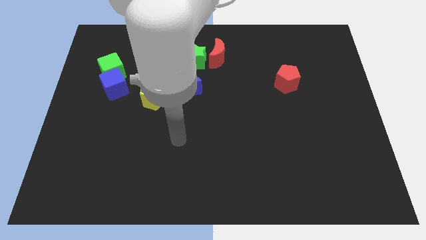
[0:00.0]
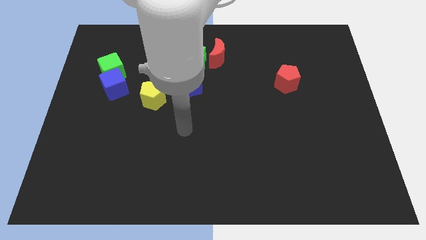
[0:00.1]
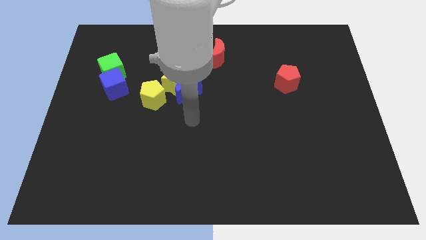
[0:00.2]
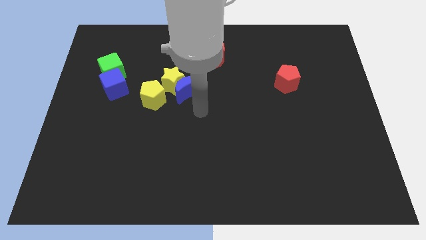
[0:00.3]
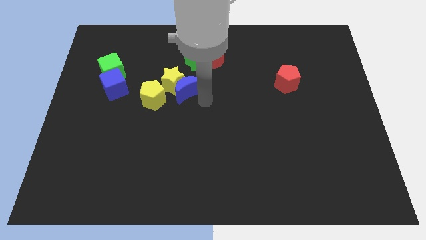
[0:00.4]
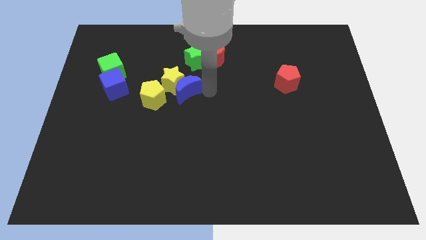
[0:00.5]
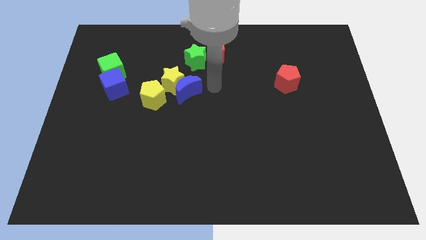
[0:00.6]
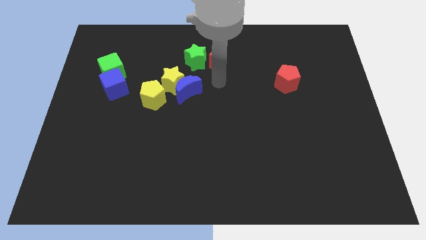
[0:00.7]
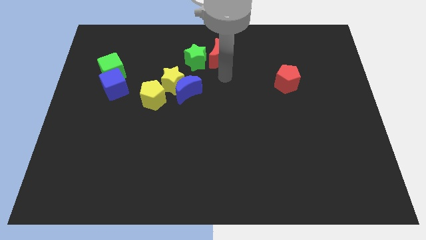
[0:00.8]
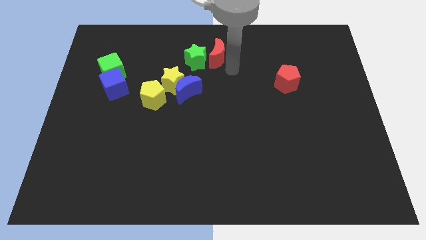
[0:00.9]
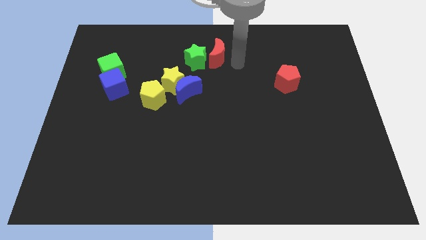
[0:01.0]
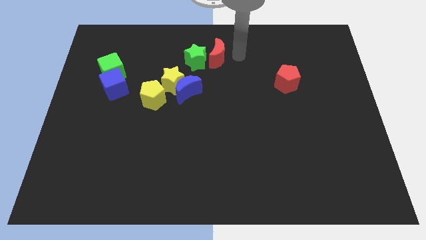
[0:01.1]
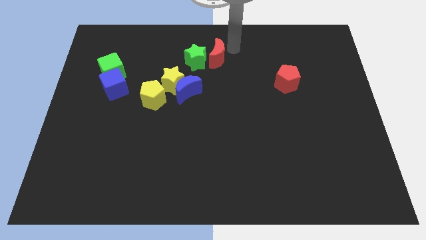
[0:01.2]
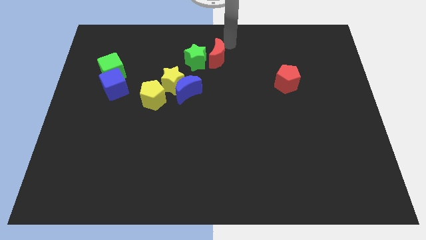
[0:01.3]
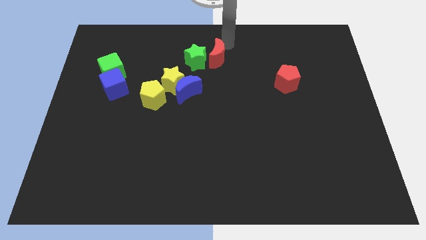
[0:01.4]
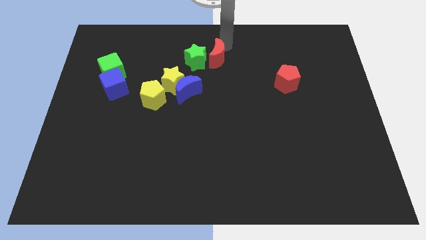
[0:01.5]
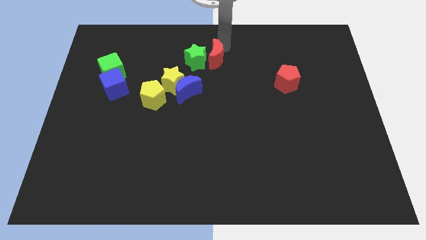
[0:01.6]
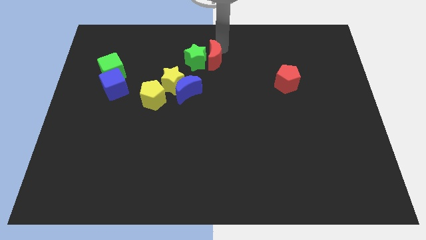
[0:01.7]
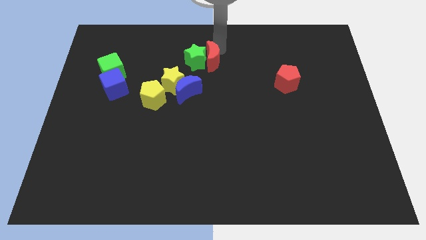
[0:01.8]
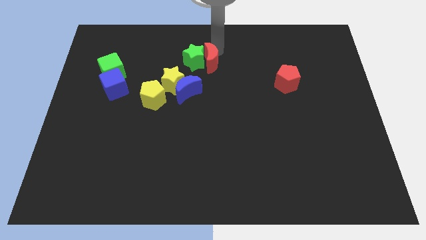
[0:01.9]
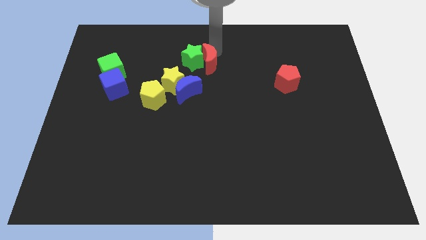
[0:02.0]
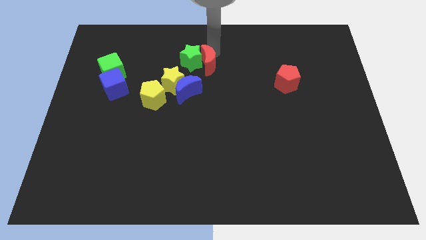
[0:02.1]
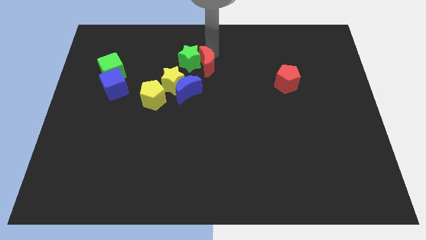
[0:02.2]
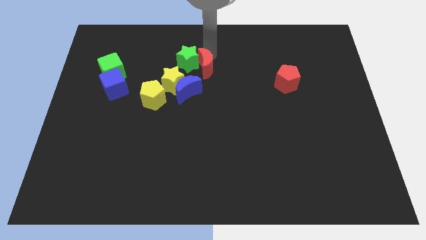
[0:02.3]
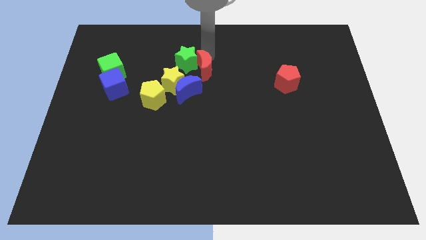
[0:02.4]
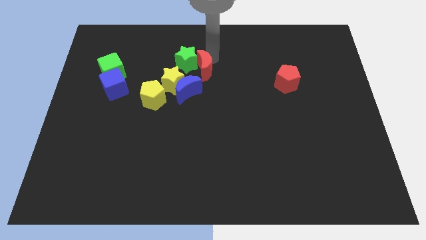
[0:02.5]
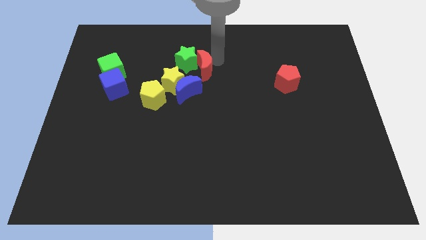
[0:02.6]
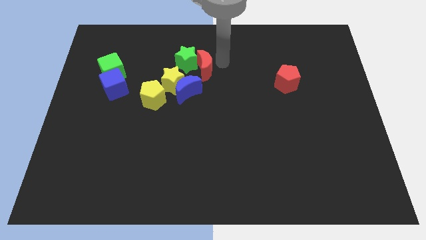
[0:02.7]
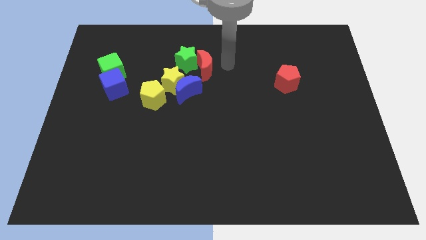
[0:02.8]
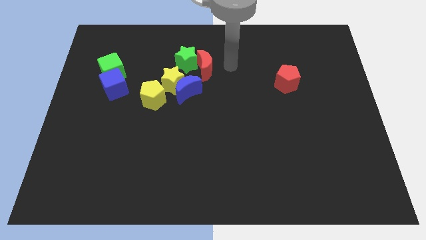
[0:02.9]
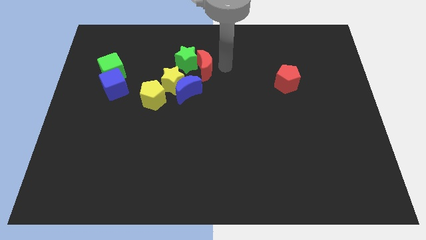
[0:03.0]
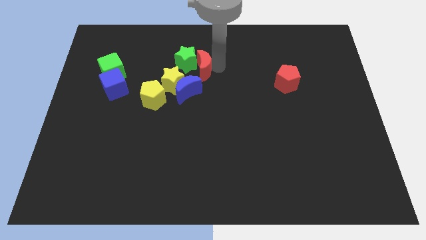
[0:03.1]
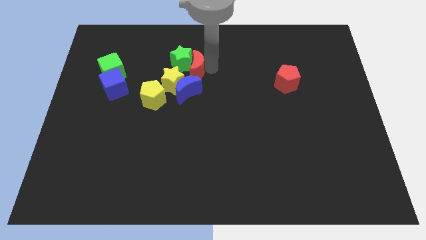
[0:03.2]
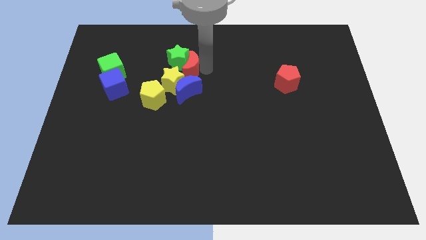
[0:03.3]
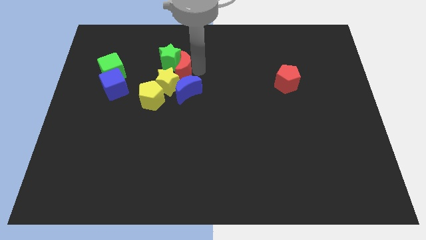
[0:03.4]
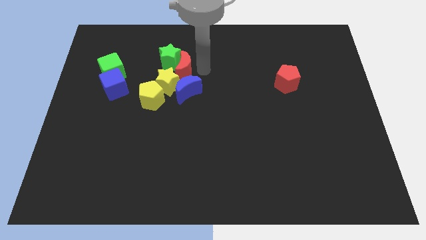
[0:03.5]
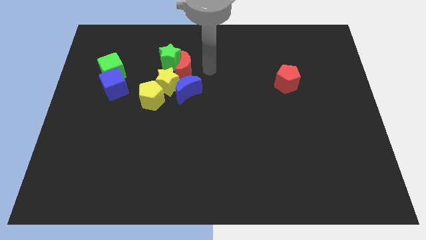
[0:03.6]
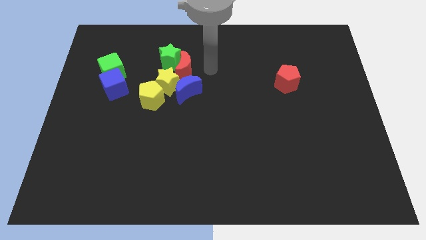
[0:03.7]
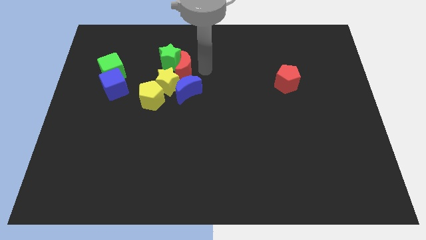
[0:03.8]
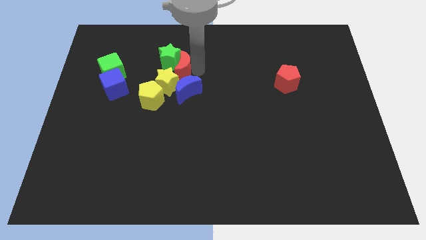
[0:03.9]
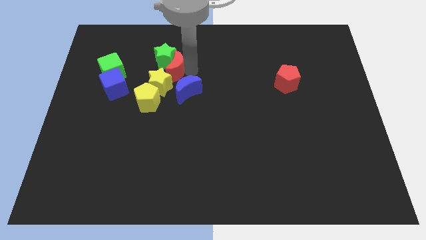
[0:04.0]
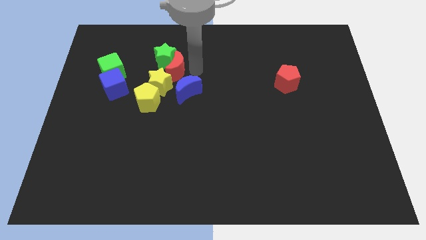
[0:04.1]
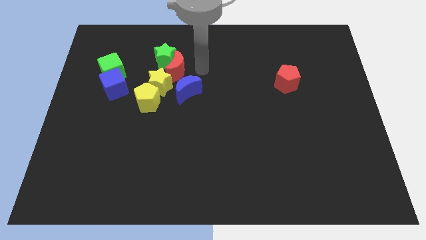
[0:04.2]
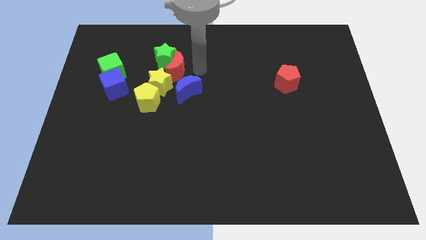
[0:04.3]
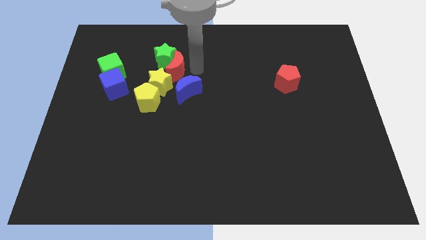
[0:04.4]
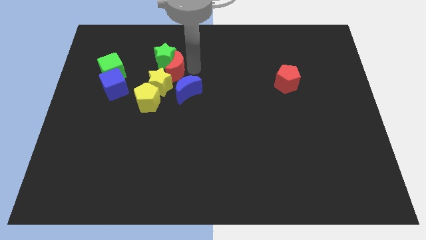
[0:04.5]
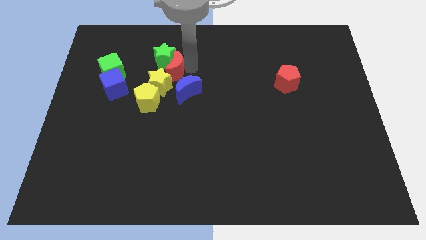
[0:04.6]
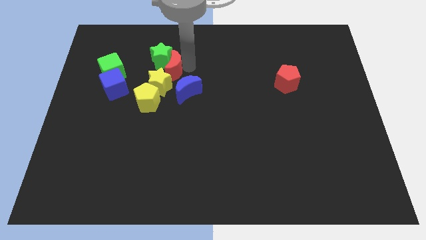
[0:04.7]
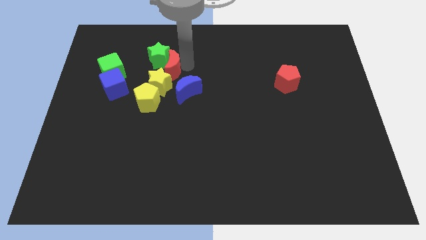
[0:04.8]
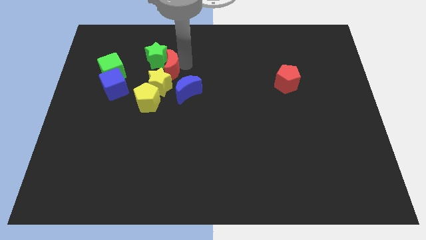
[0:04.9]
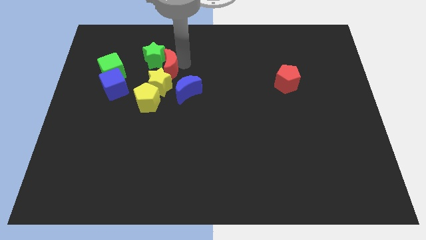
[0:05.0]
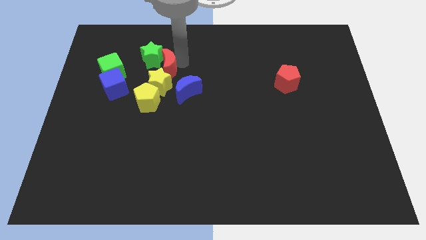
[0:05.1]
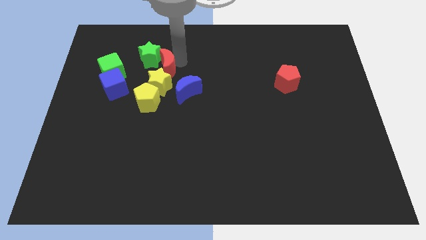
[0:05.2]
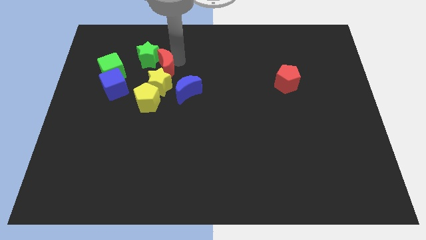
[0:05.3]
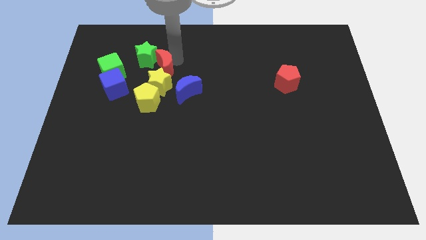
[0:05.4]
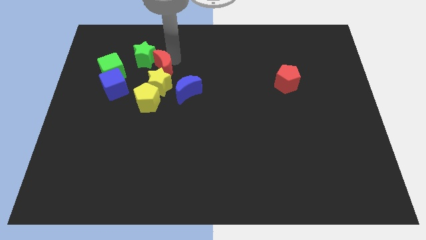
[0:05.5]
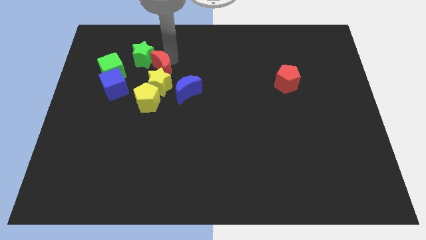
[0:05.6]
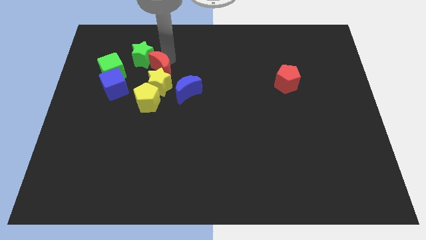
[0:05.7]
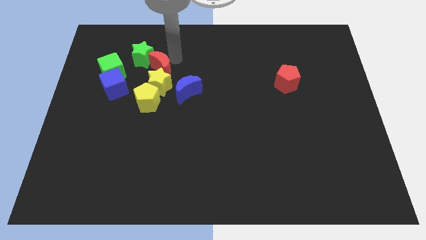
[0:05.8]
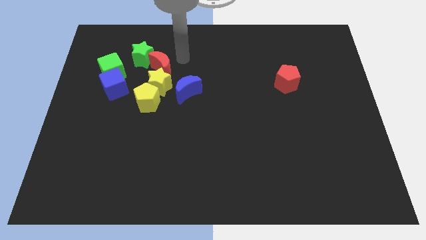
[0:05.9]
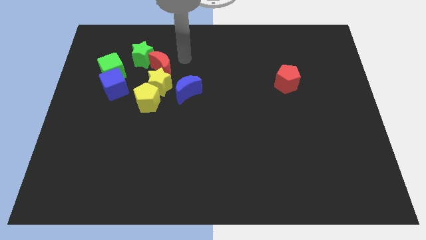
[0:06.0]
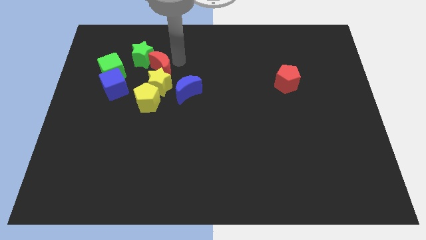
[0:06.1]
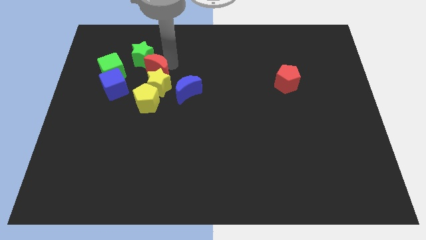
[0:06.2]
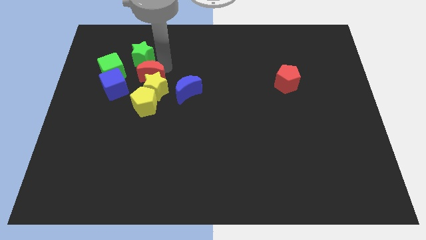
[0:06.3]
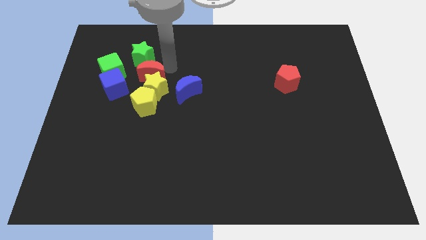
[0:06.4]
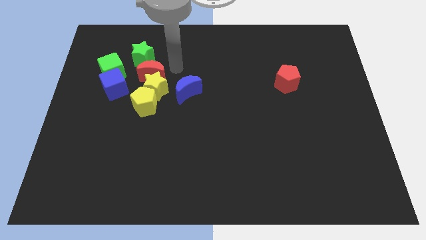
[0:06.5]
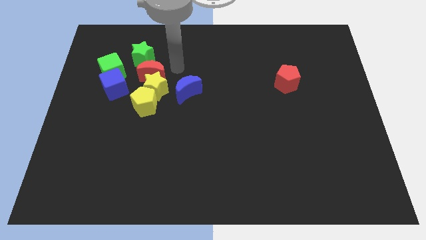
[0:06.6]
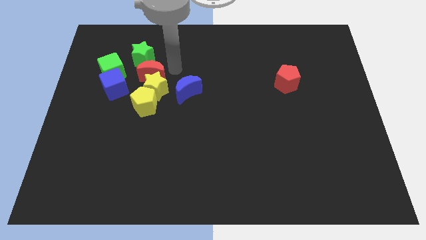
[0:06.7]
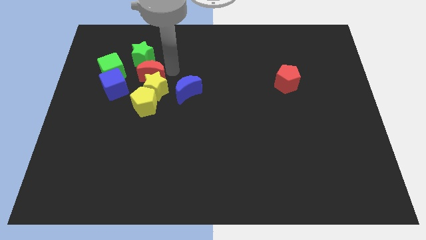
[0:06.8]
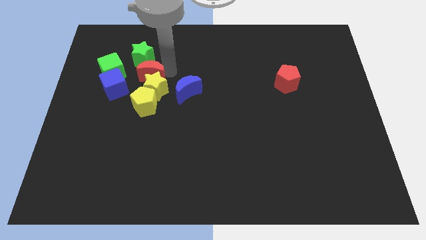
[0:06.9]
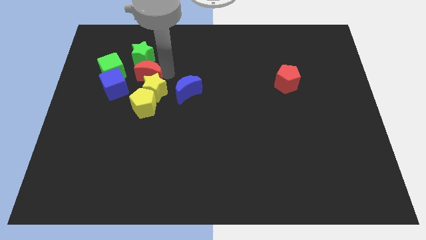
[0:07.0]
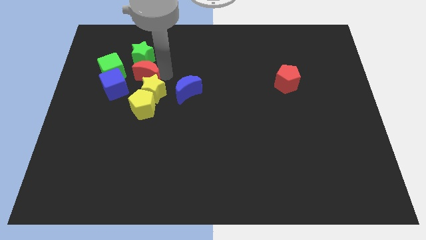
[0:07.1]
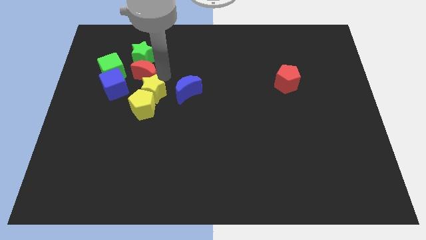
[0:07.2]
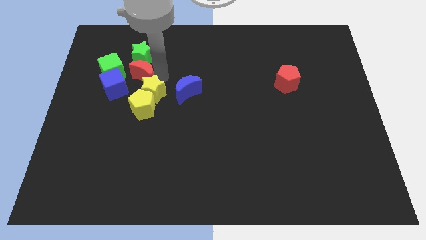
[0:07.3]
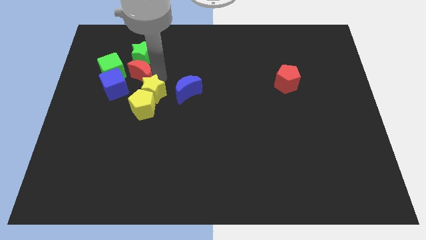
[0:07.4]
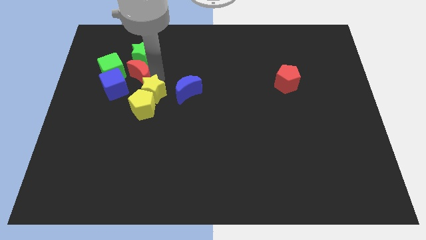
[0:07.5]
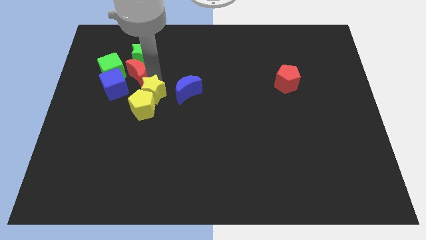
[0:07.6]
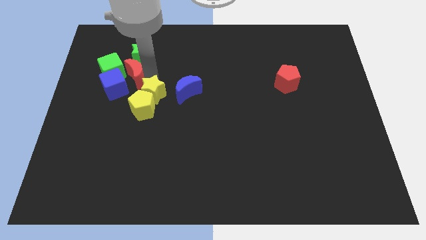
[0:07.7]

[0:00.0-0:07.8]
push the red moon next to the blue cube
